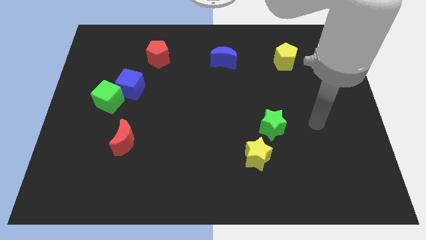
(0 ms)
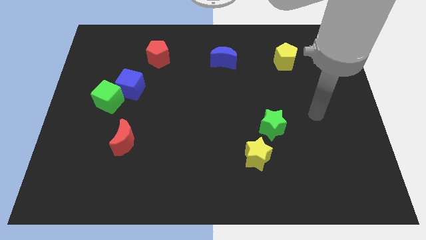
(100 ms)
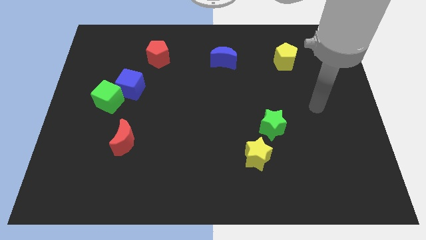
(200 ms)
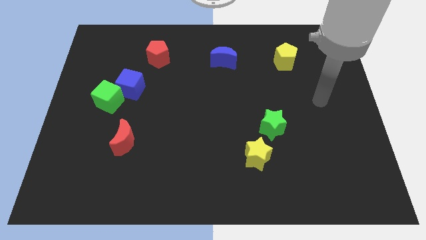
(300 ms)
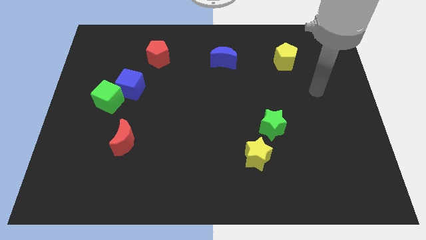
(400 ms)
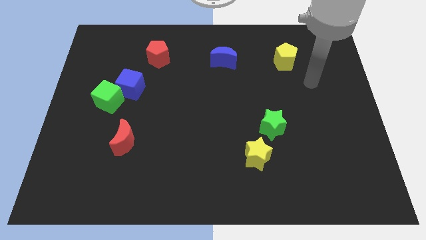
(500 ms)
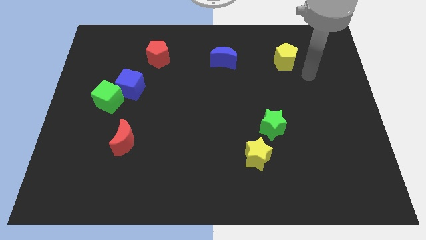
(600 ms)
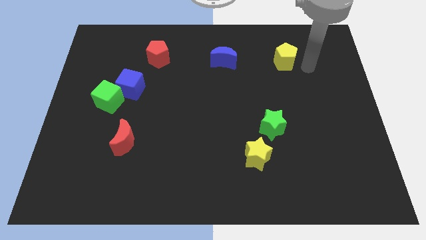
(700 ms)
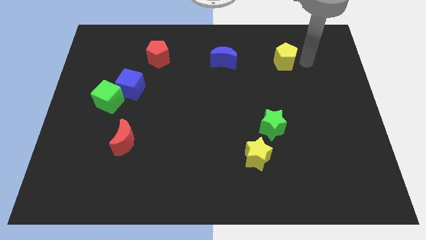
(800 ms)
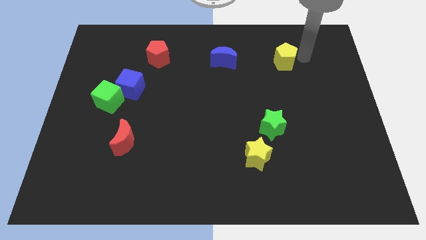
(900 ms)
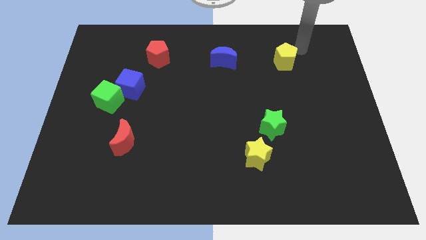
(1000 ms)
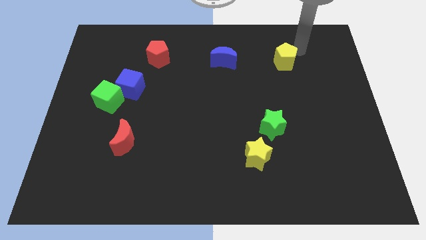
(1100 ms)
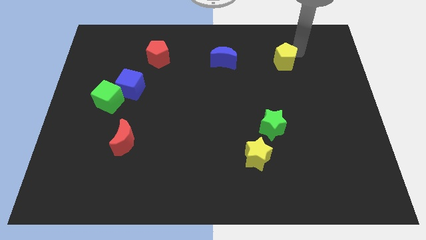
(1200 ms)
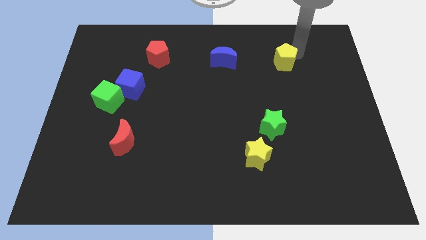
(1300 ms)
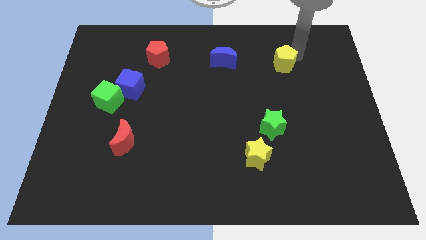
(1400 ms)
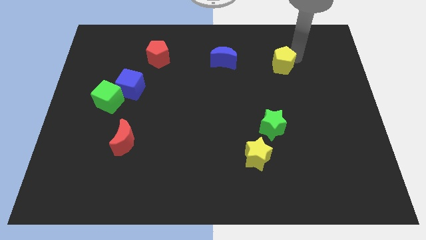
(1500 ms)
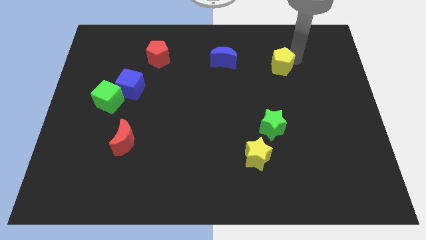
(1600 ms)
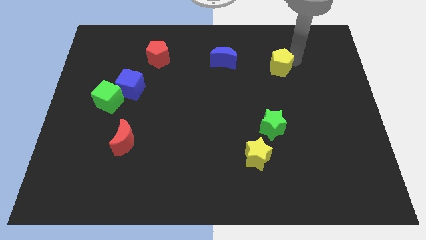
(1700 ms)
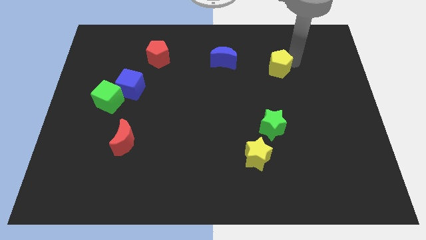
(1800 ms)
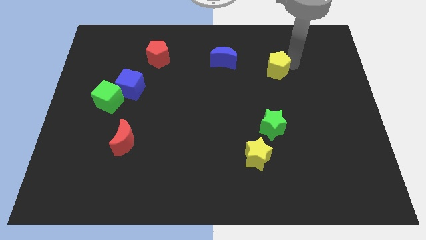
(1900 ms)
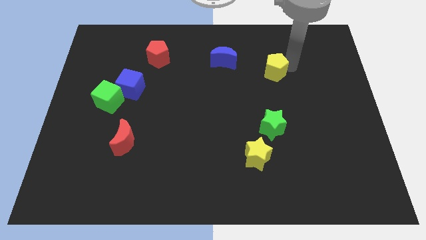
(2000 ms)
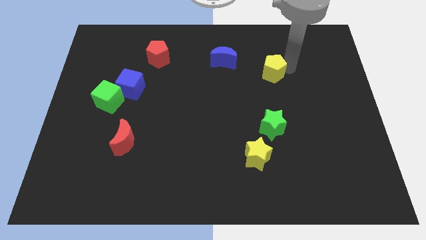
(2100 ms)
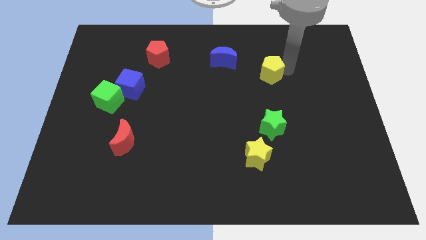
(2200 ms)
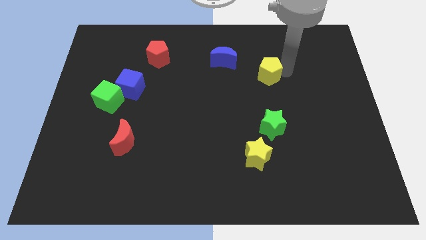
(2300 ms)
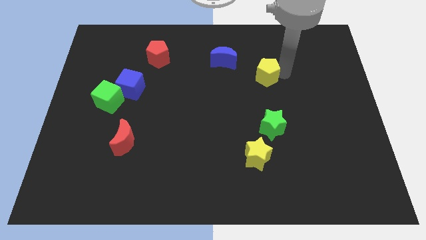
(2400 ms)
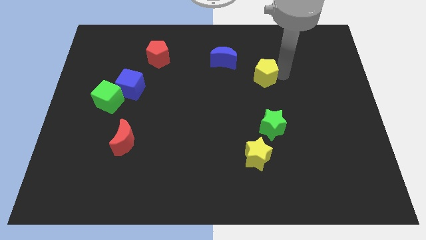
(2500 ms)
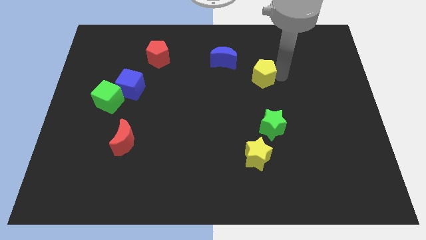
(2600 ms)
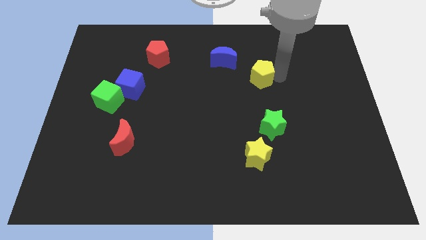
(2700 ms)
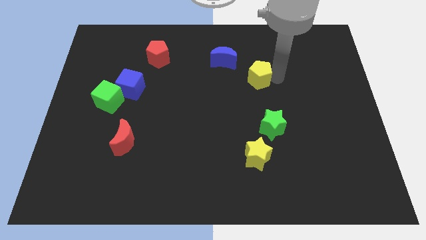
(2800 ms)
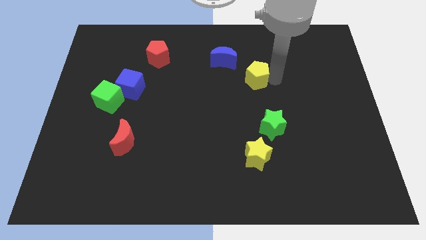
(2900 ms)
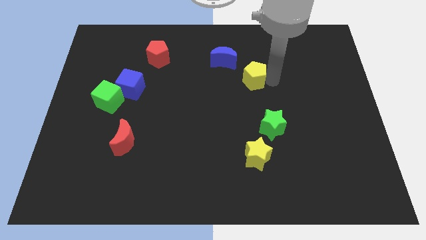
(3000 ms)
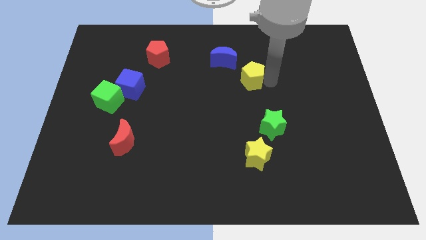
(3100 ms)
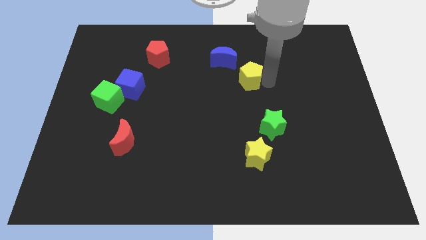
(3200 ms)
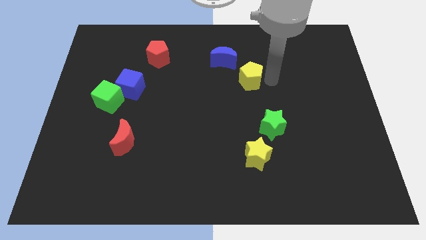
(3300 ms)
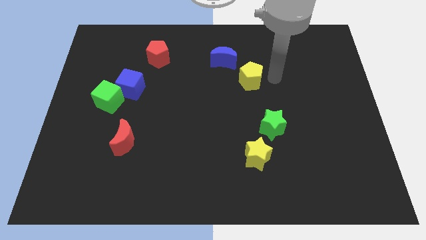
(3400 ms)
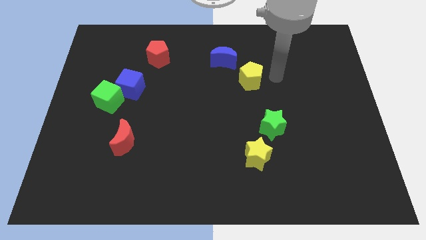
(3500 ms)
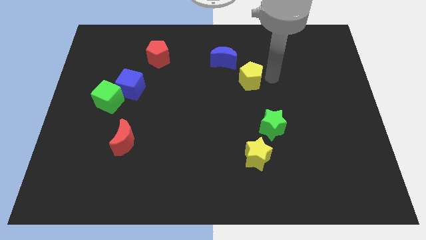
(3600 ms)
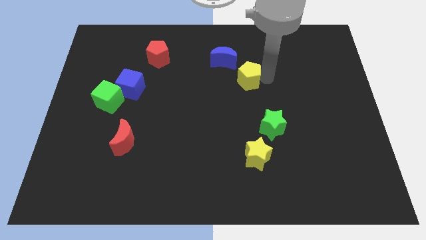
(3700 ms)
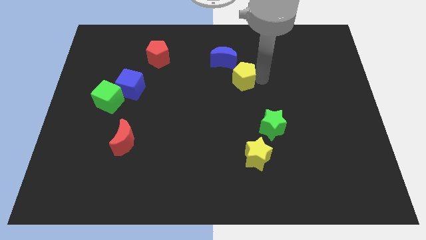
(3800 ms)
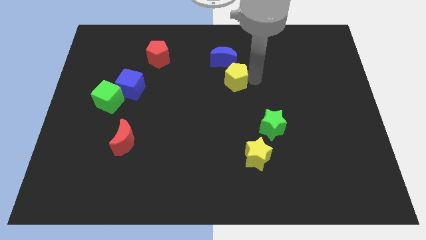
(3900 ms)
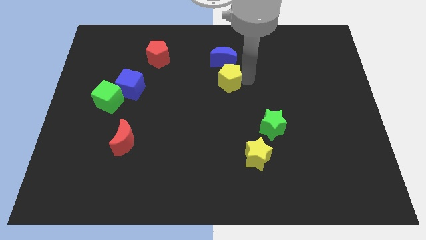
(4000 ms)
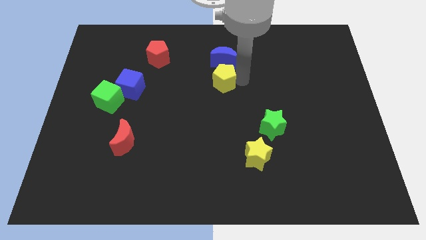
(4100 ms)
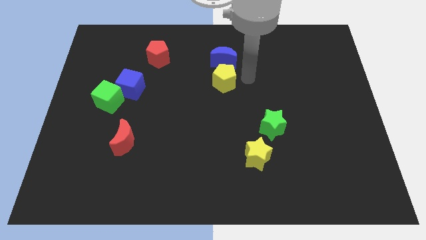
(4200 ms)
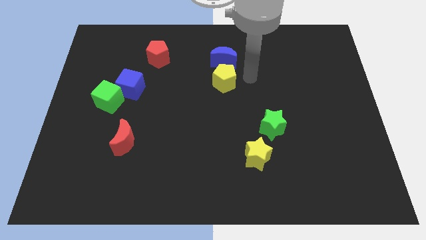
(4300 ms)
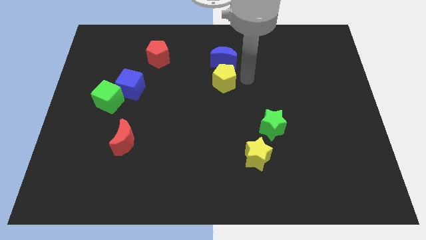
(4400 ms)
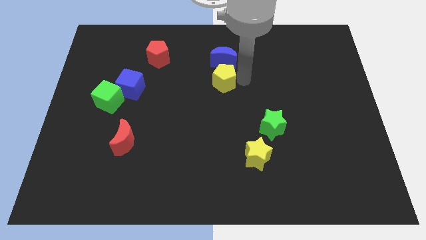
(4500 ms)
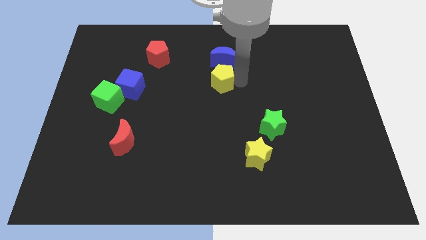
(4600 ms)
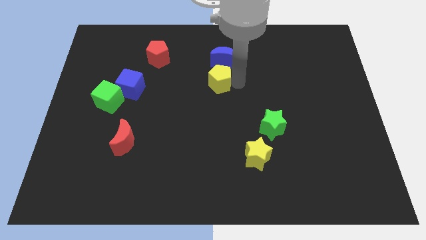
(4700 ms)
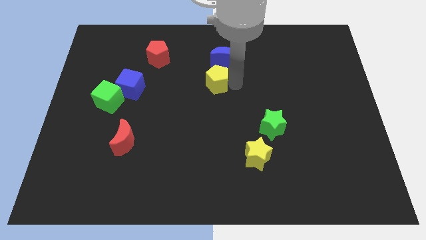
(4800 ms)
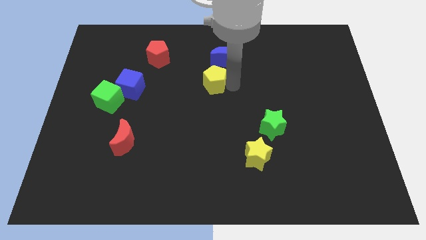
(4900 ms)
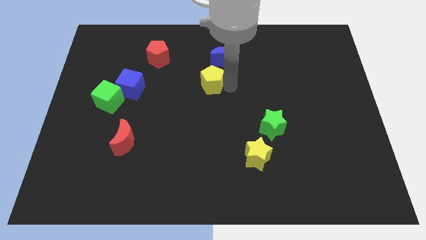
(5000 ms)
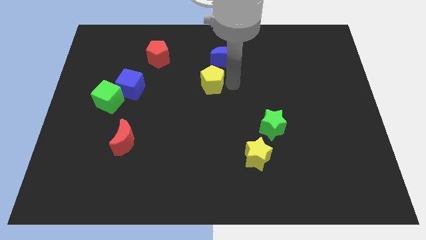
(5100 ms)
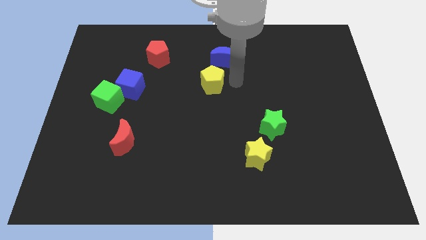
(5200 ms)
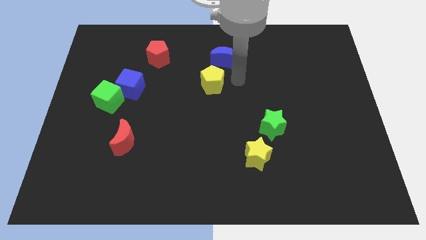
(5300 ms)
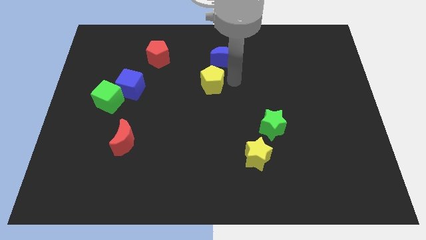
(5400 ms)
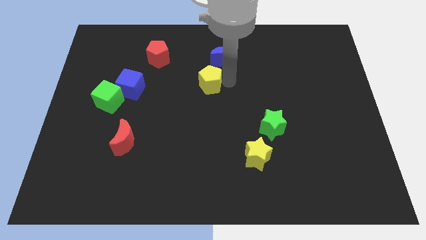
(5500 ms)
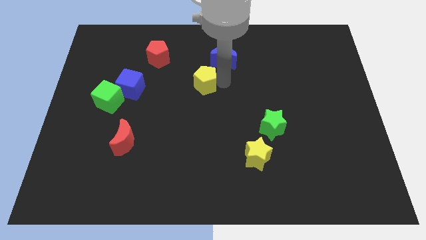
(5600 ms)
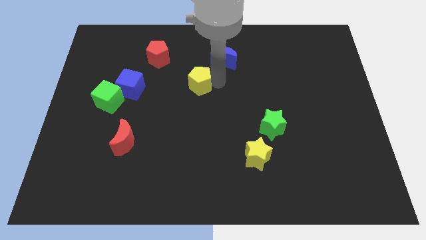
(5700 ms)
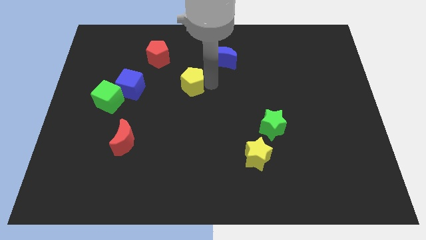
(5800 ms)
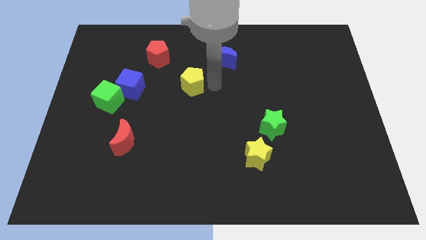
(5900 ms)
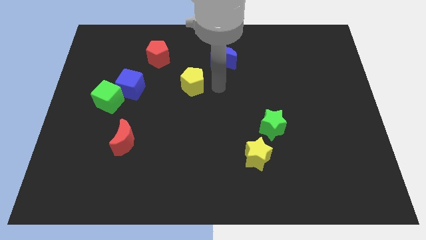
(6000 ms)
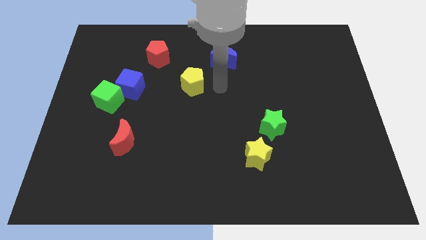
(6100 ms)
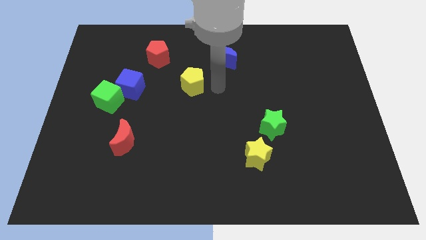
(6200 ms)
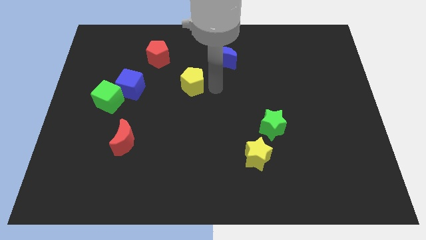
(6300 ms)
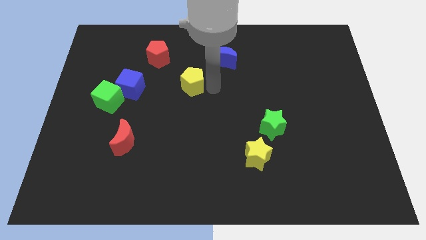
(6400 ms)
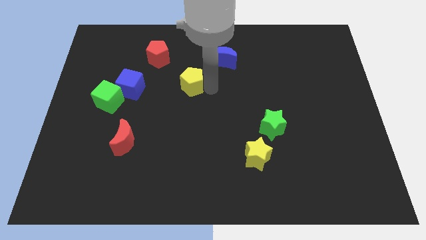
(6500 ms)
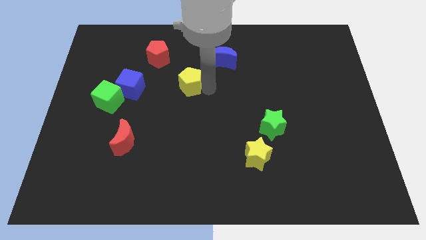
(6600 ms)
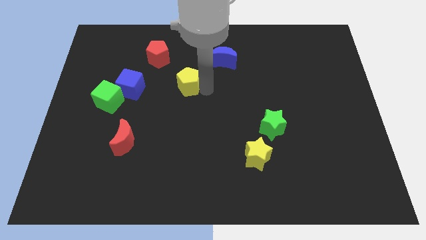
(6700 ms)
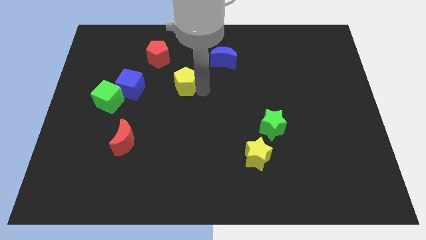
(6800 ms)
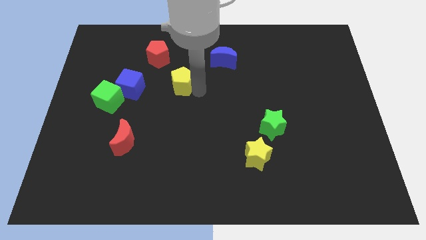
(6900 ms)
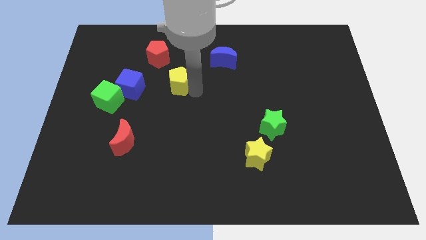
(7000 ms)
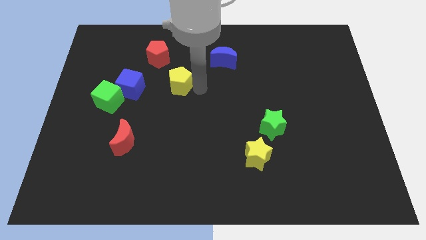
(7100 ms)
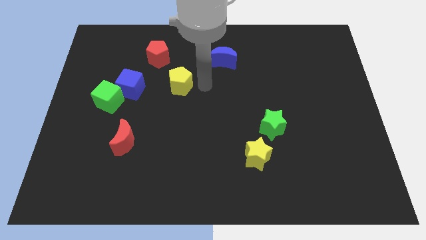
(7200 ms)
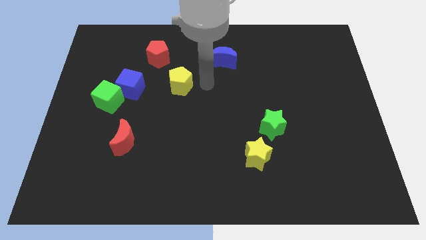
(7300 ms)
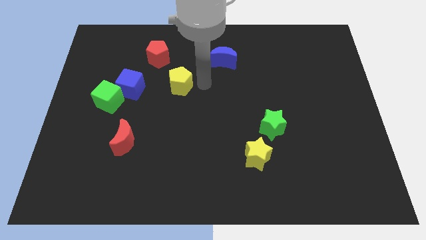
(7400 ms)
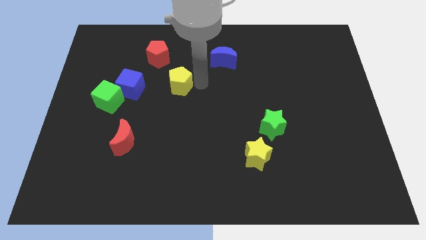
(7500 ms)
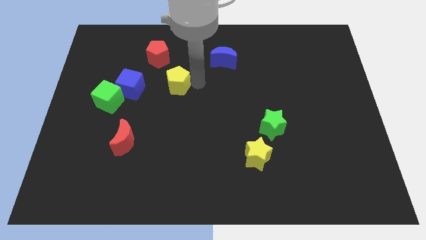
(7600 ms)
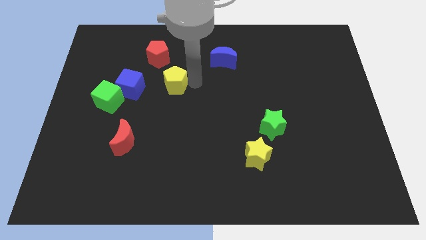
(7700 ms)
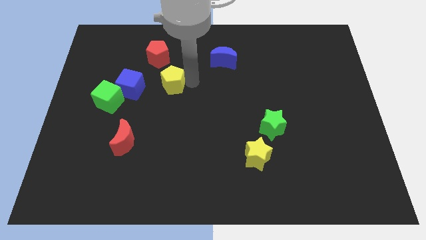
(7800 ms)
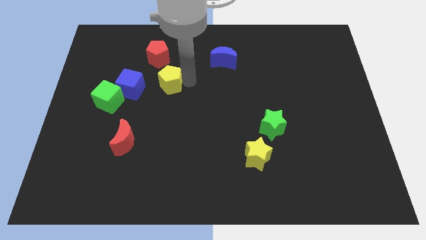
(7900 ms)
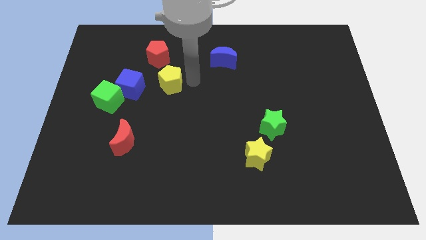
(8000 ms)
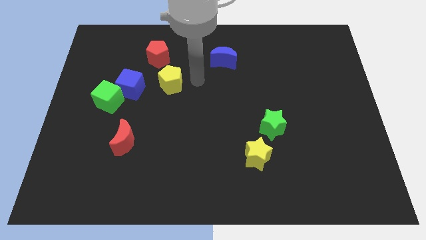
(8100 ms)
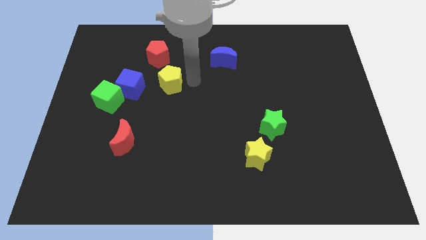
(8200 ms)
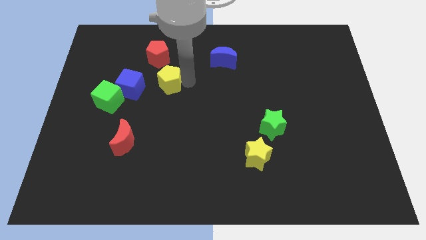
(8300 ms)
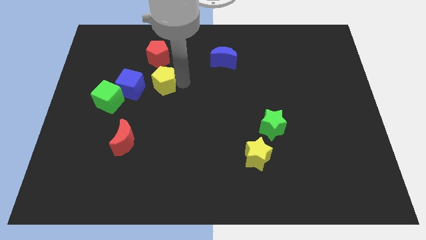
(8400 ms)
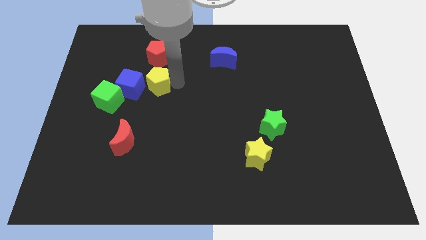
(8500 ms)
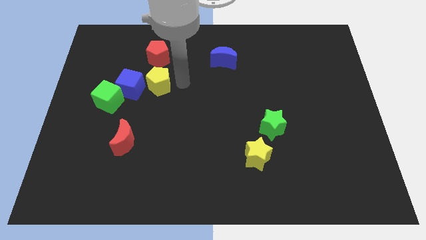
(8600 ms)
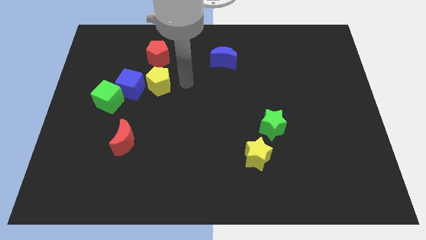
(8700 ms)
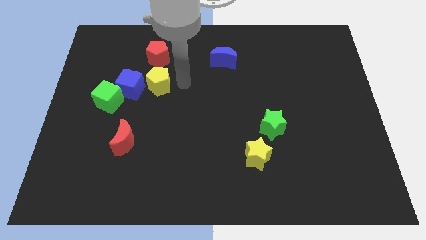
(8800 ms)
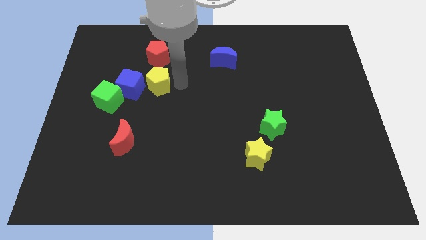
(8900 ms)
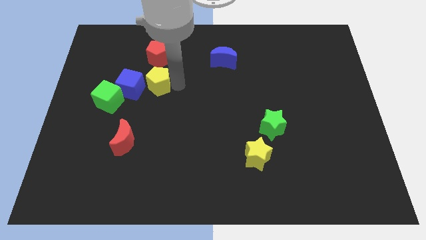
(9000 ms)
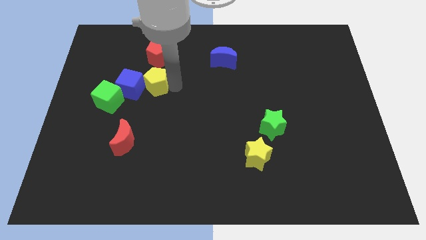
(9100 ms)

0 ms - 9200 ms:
put the yellow pentagon to the blue cube
